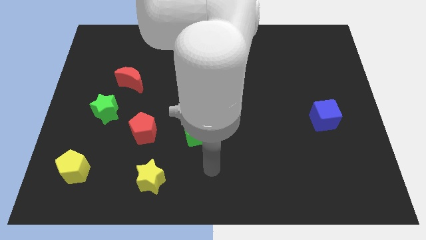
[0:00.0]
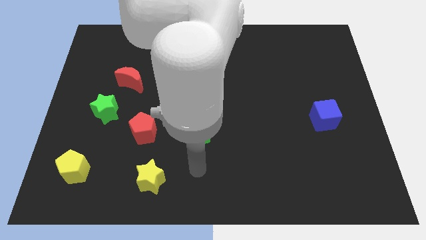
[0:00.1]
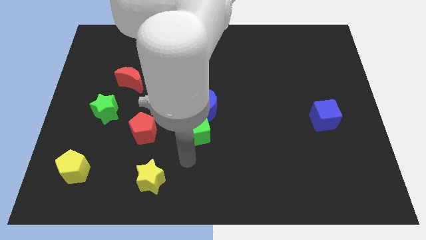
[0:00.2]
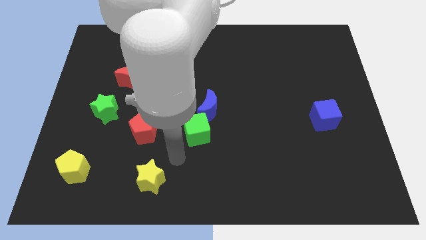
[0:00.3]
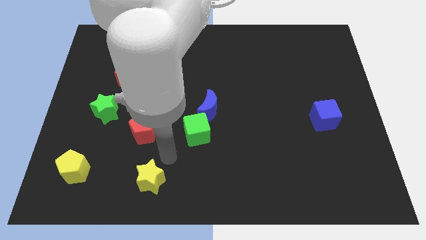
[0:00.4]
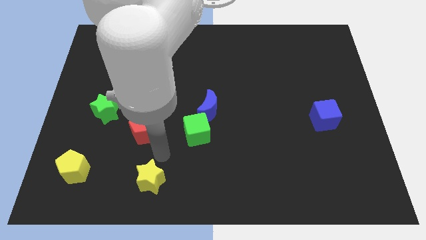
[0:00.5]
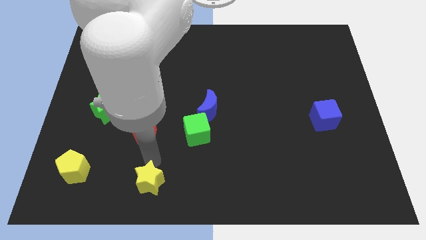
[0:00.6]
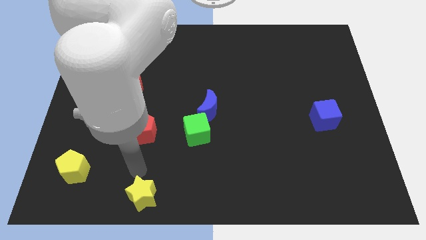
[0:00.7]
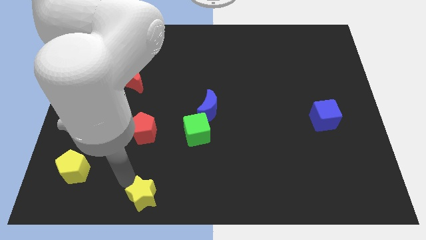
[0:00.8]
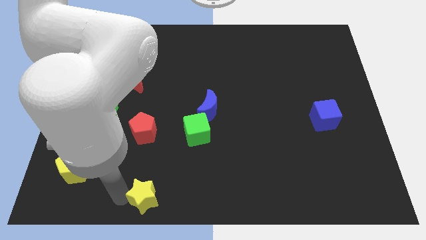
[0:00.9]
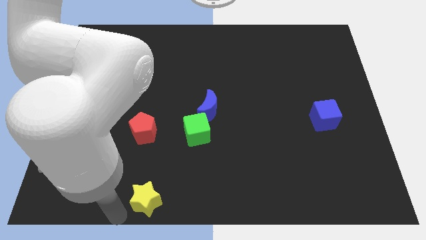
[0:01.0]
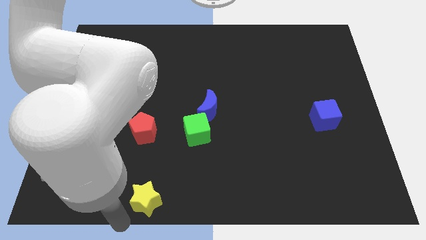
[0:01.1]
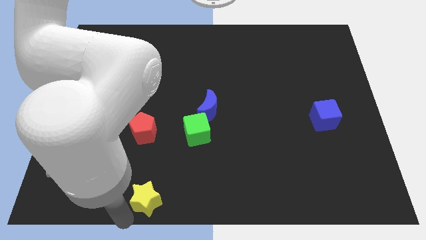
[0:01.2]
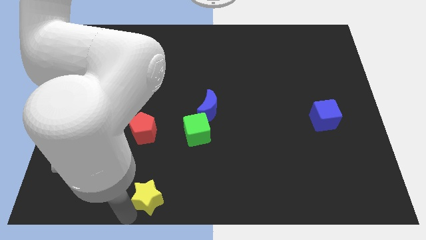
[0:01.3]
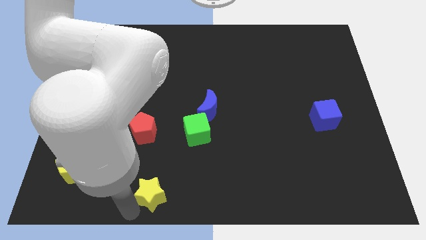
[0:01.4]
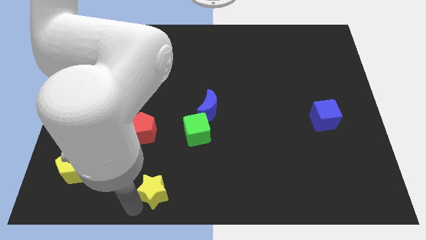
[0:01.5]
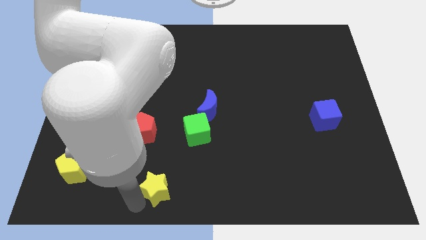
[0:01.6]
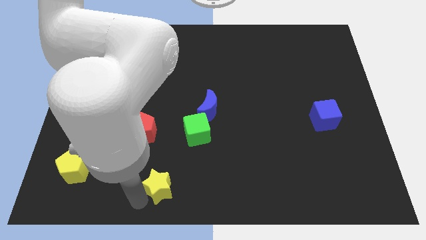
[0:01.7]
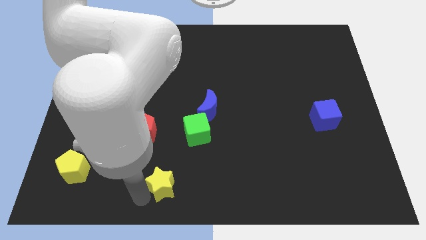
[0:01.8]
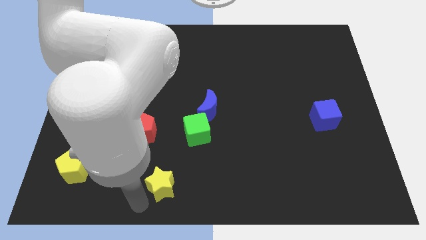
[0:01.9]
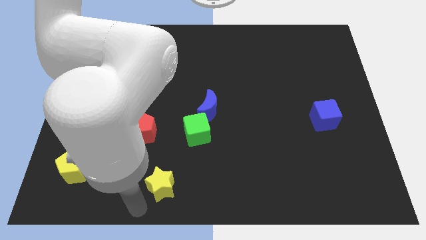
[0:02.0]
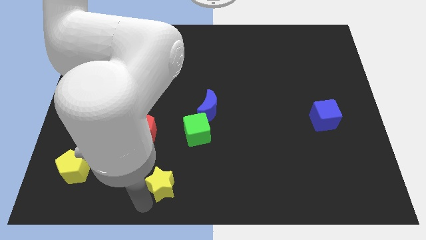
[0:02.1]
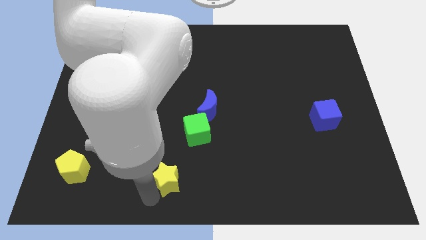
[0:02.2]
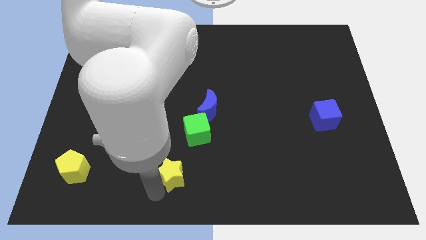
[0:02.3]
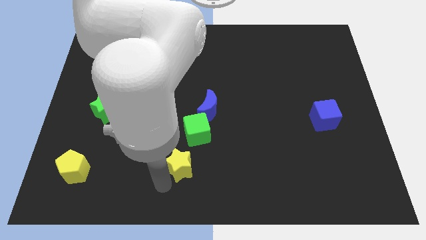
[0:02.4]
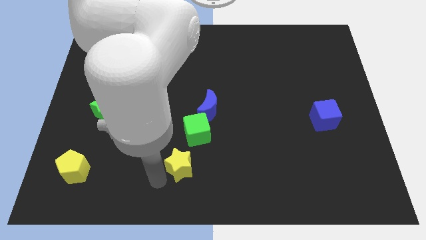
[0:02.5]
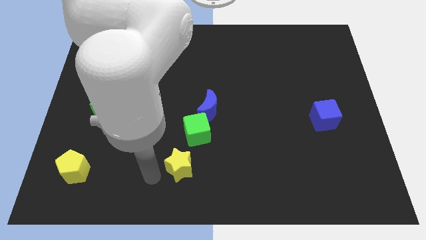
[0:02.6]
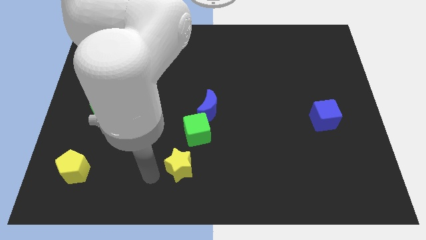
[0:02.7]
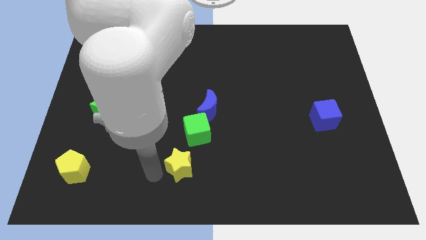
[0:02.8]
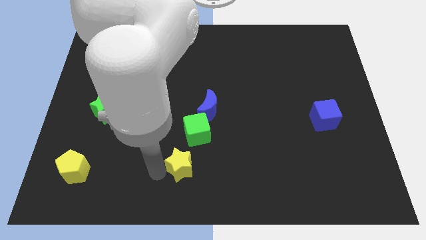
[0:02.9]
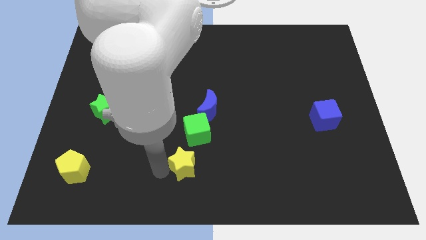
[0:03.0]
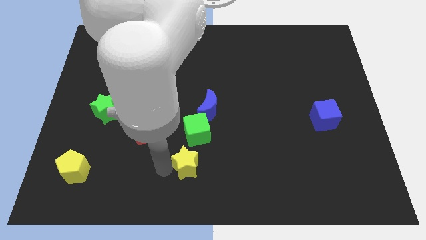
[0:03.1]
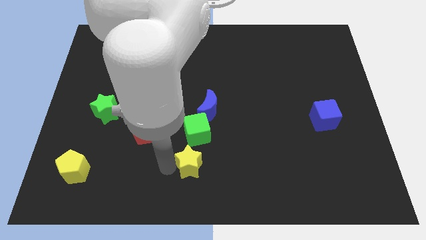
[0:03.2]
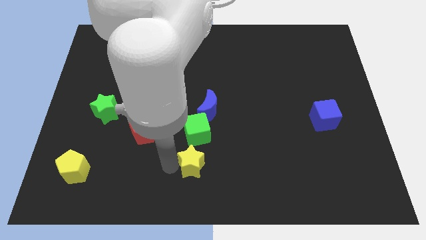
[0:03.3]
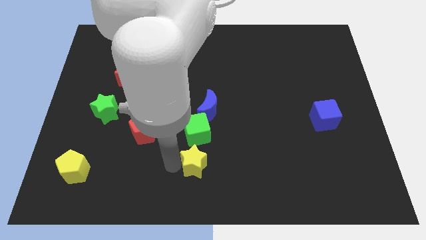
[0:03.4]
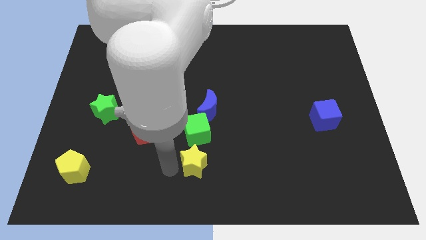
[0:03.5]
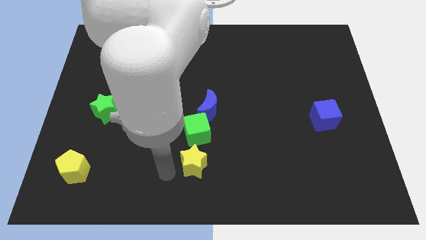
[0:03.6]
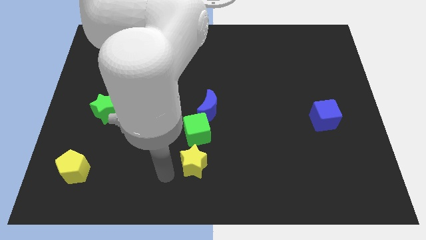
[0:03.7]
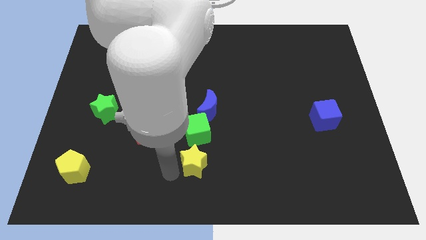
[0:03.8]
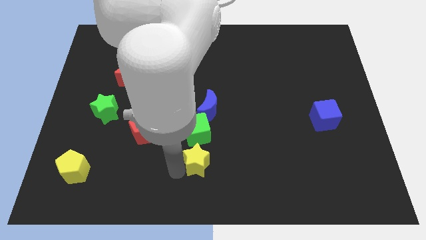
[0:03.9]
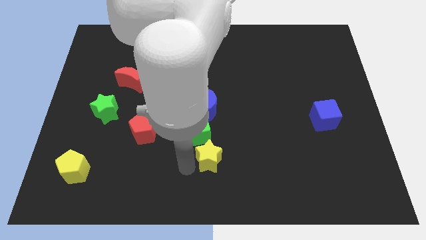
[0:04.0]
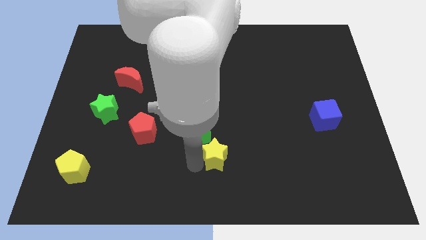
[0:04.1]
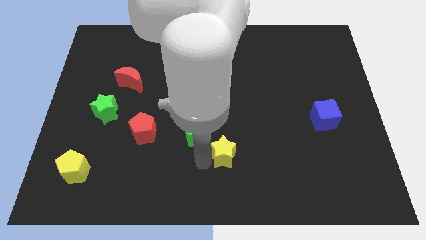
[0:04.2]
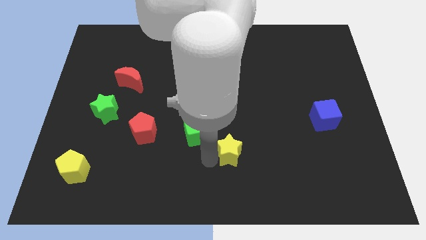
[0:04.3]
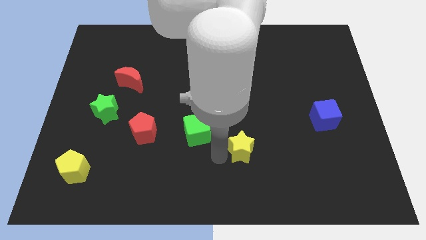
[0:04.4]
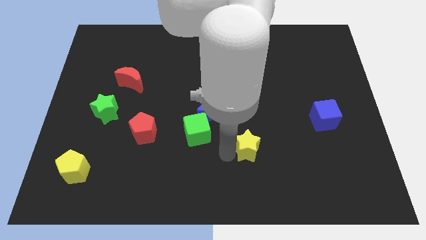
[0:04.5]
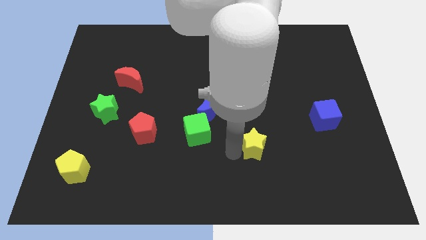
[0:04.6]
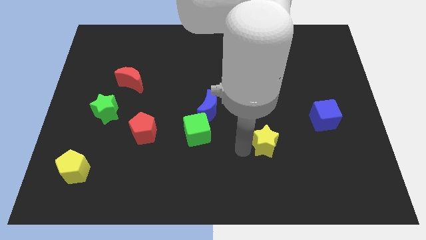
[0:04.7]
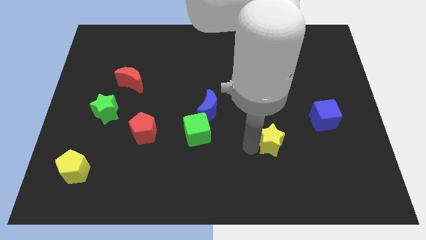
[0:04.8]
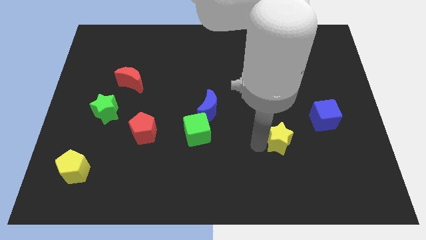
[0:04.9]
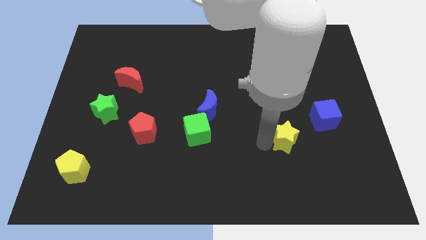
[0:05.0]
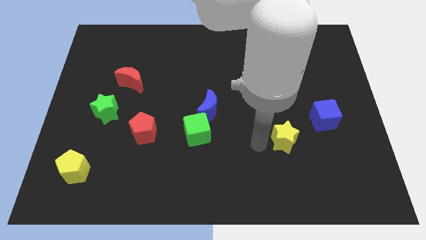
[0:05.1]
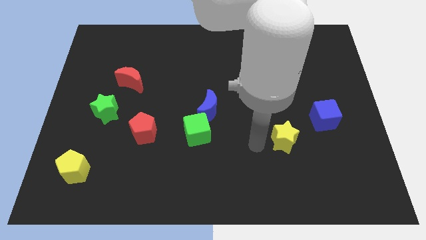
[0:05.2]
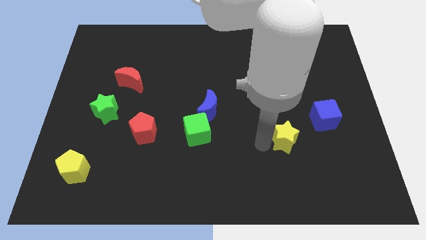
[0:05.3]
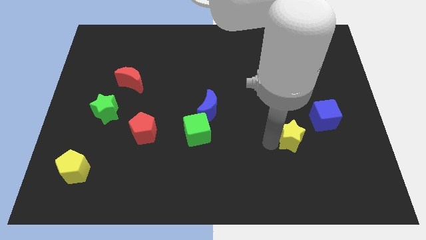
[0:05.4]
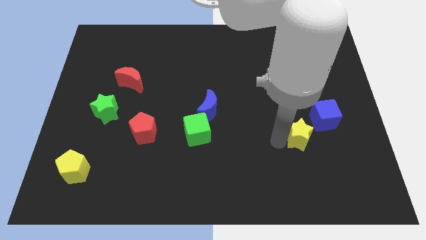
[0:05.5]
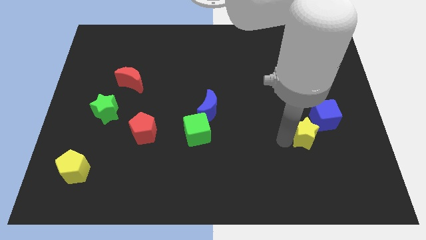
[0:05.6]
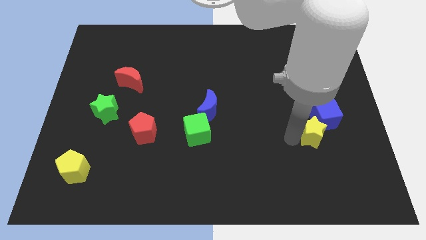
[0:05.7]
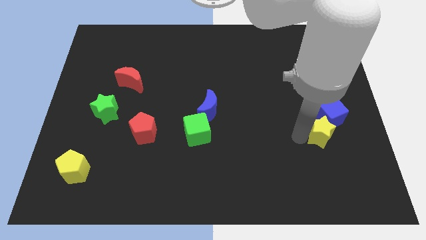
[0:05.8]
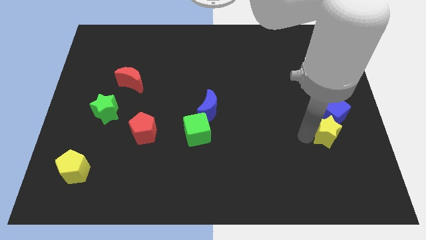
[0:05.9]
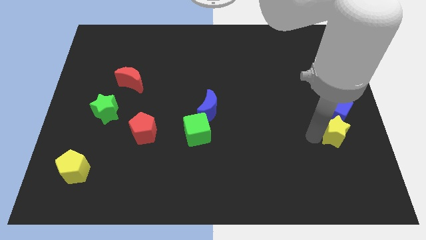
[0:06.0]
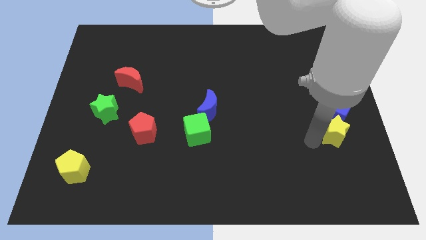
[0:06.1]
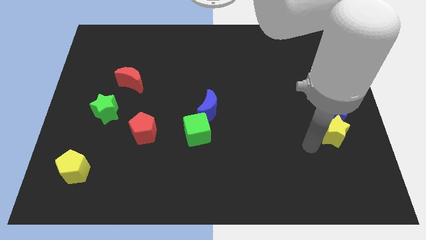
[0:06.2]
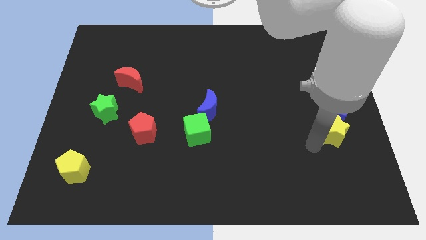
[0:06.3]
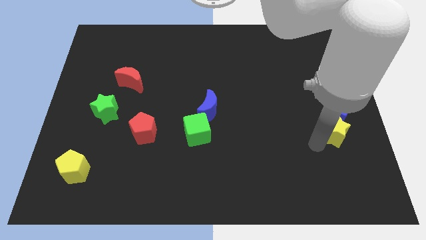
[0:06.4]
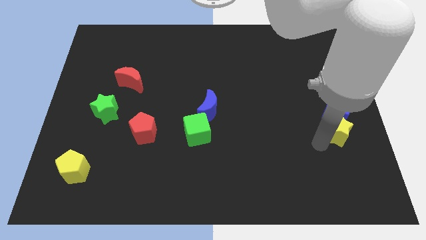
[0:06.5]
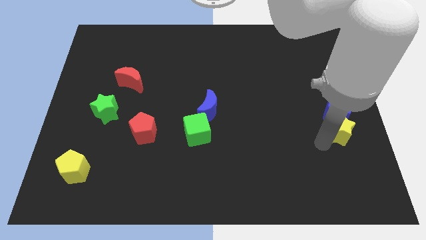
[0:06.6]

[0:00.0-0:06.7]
move the yellow star to the right side of the board
